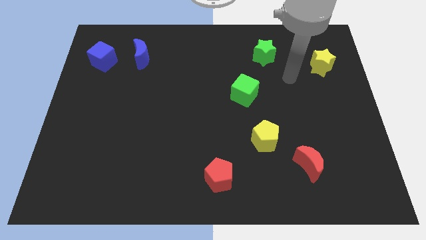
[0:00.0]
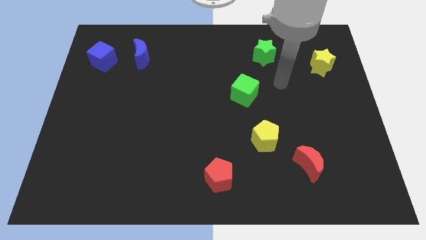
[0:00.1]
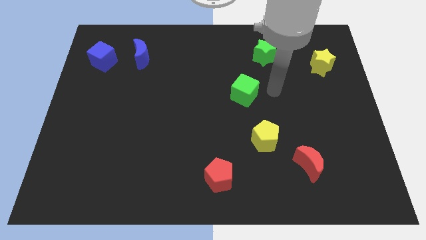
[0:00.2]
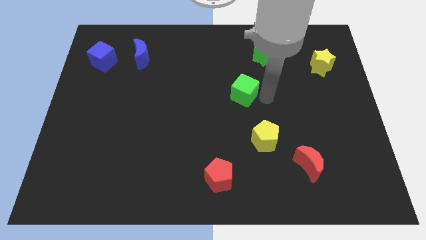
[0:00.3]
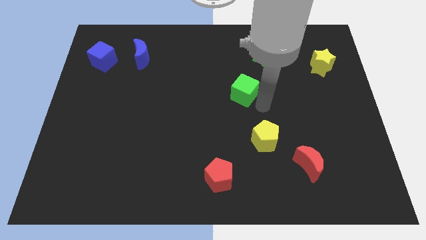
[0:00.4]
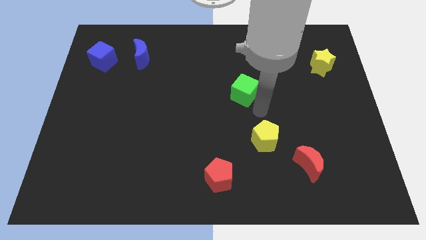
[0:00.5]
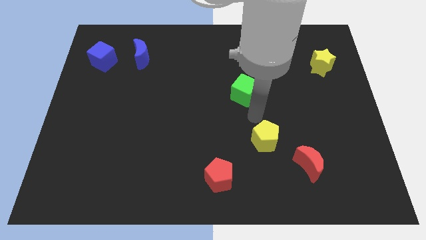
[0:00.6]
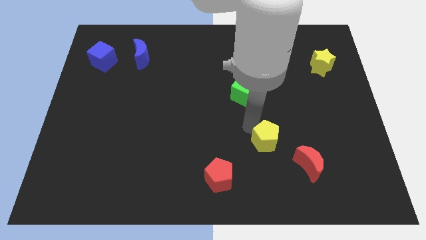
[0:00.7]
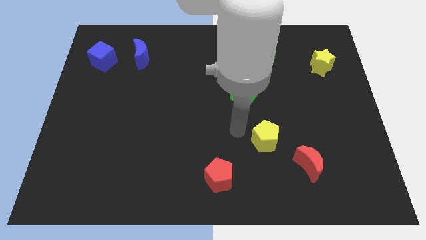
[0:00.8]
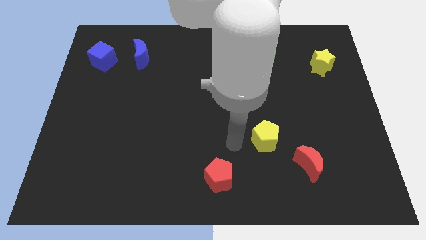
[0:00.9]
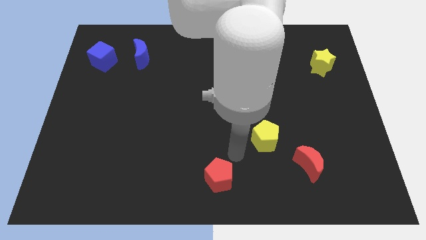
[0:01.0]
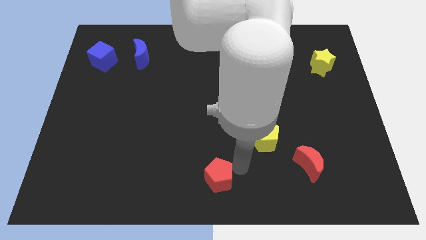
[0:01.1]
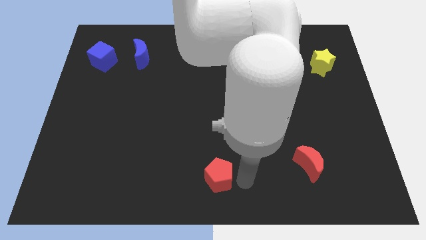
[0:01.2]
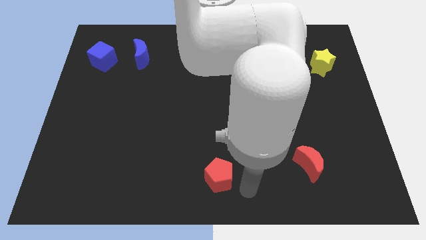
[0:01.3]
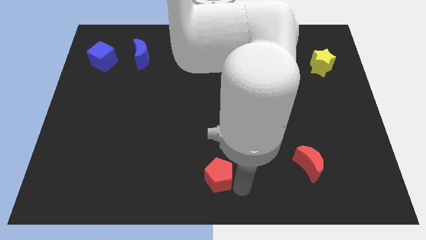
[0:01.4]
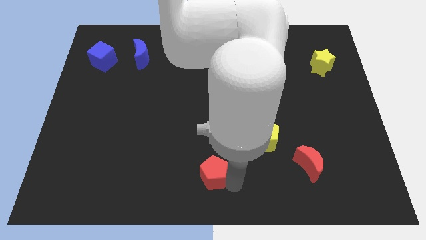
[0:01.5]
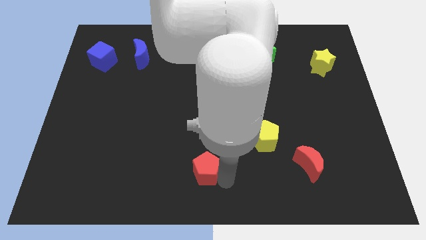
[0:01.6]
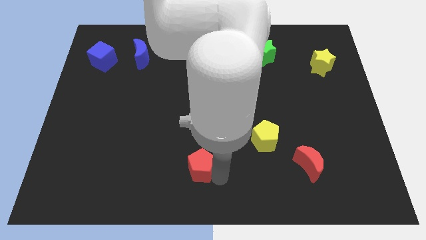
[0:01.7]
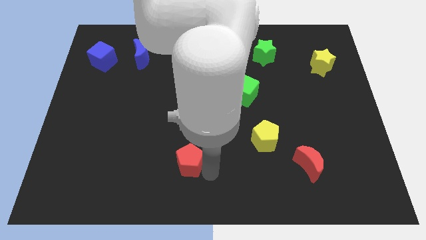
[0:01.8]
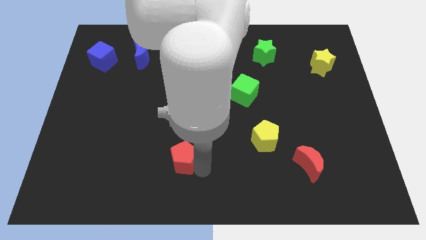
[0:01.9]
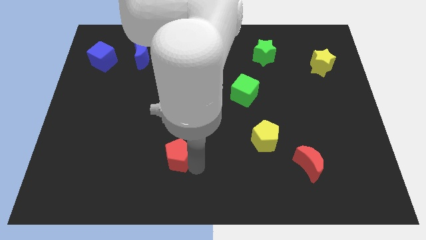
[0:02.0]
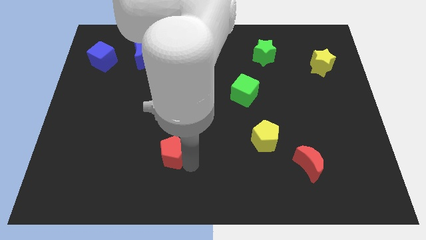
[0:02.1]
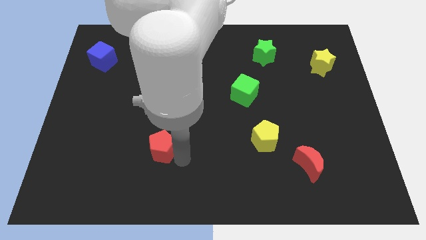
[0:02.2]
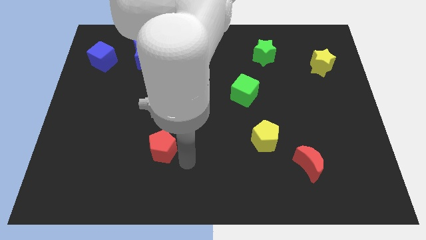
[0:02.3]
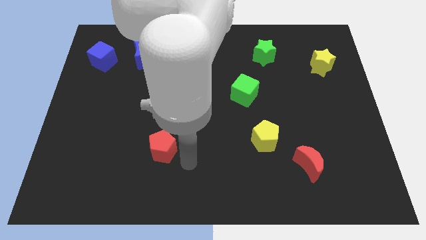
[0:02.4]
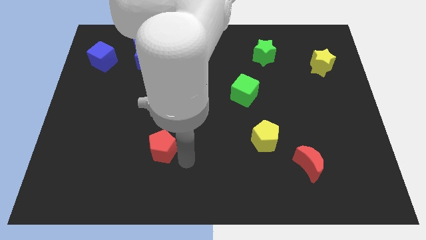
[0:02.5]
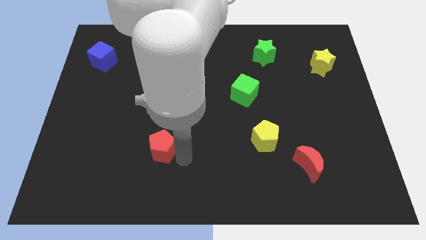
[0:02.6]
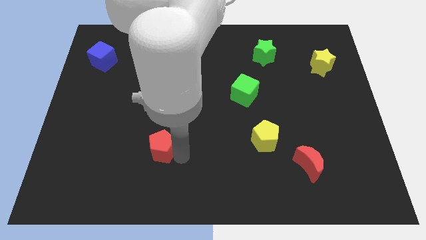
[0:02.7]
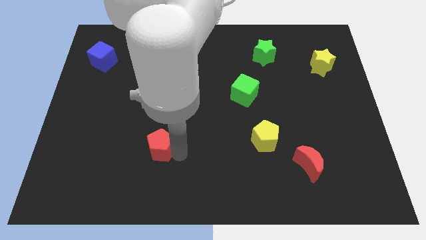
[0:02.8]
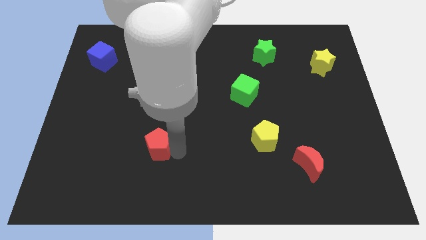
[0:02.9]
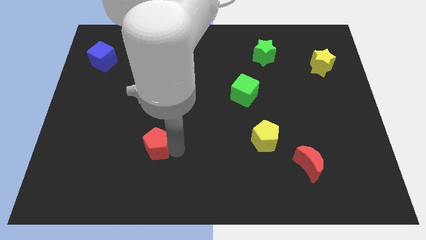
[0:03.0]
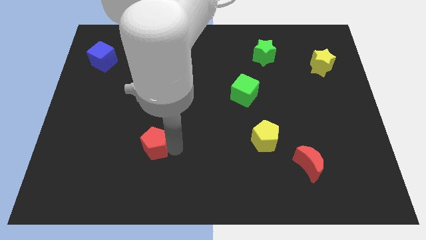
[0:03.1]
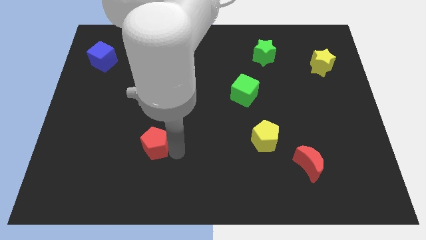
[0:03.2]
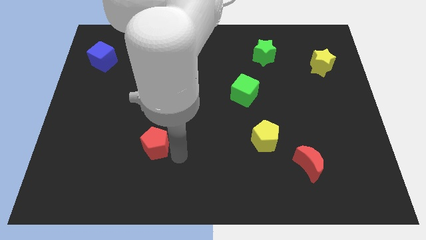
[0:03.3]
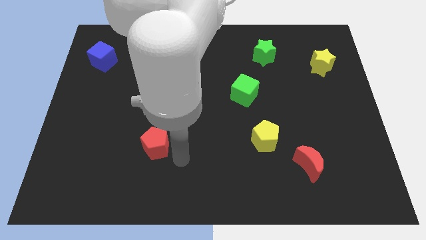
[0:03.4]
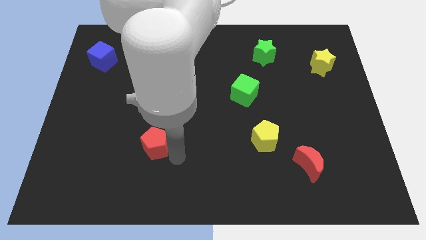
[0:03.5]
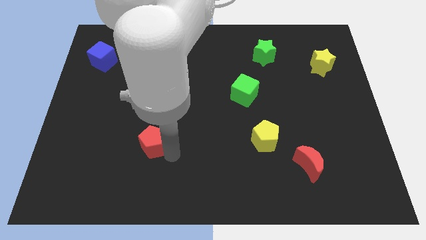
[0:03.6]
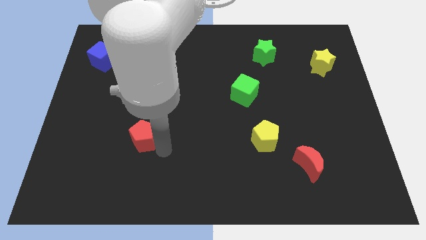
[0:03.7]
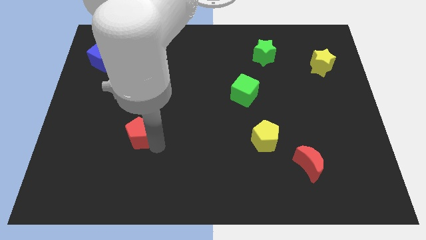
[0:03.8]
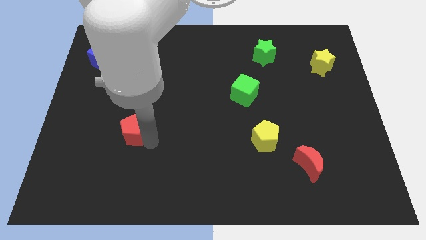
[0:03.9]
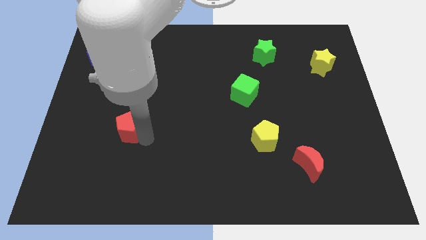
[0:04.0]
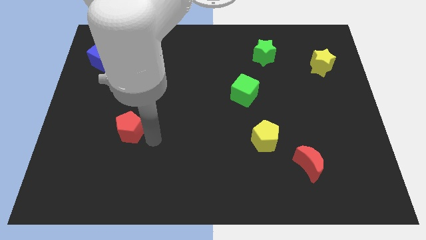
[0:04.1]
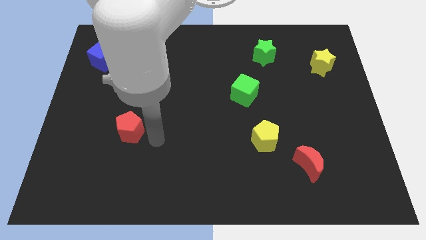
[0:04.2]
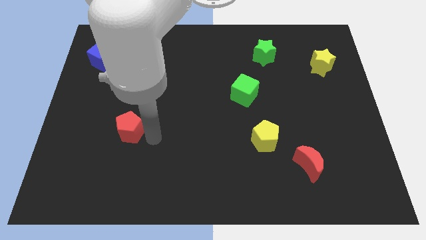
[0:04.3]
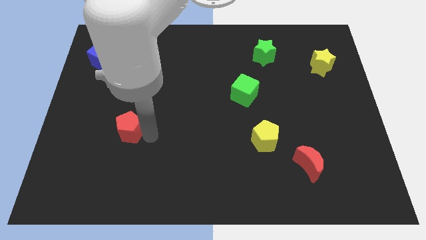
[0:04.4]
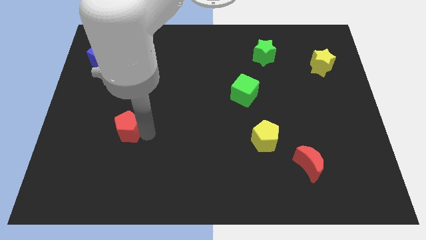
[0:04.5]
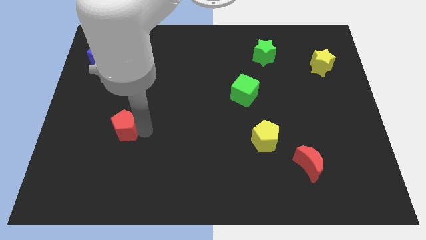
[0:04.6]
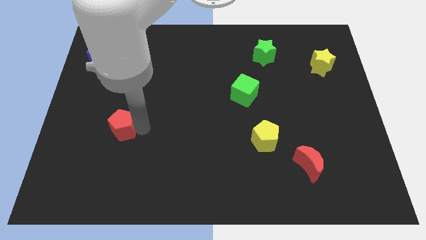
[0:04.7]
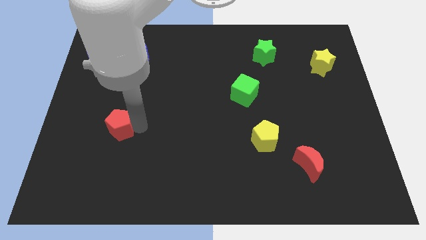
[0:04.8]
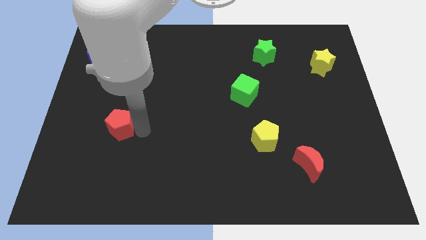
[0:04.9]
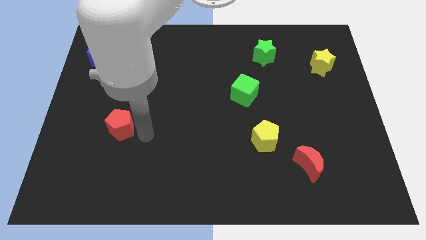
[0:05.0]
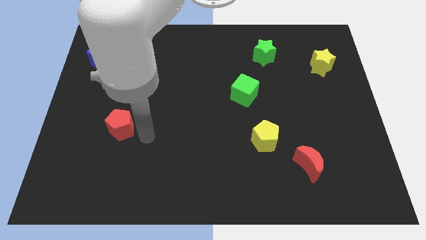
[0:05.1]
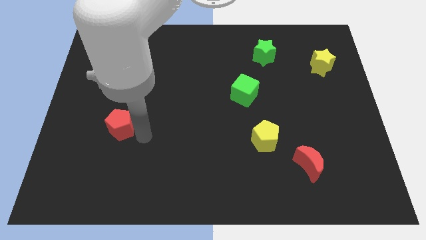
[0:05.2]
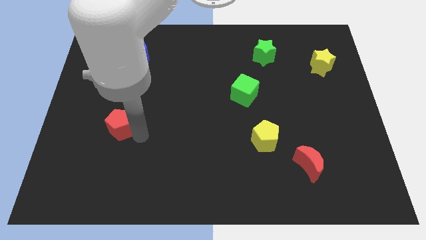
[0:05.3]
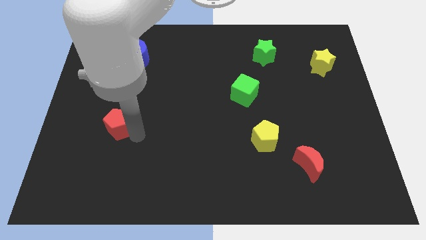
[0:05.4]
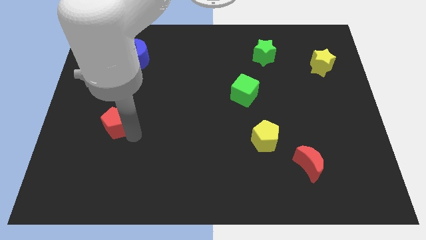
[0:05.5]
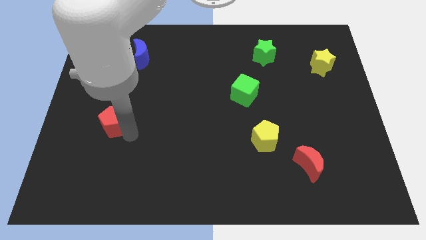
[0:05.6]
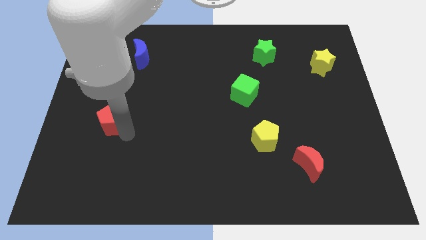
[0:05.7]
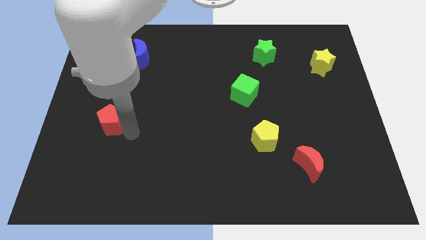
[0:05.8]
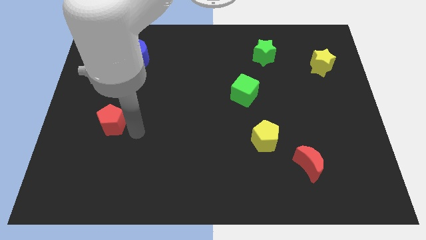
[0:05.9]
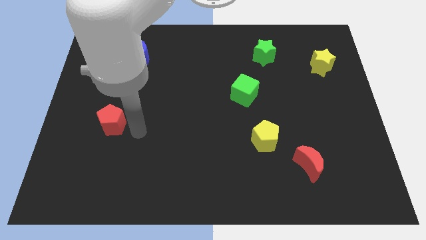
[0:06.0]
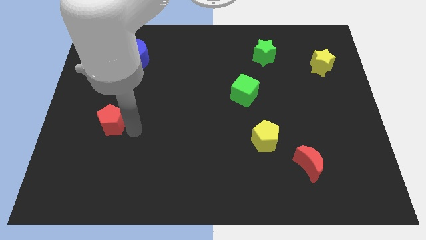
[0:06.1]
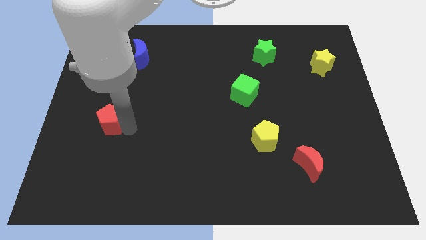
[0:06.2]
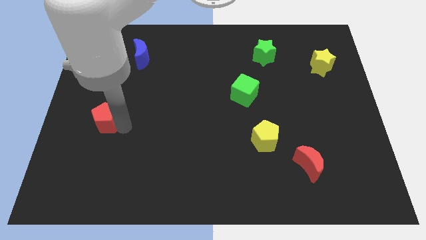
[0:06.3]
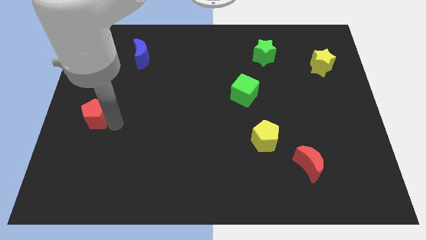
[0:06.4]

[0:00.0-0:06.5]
push the red pentagon to the left side
